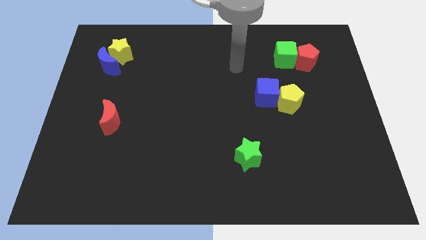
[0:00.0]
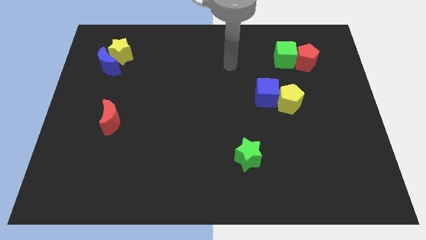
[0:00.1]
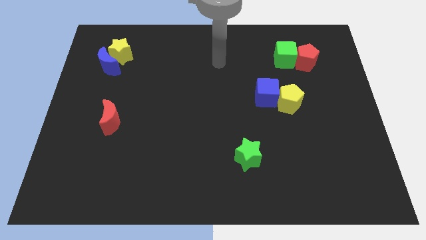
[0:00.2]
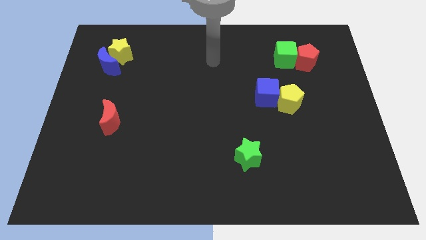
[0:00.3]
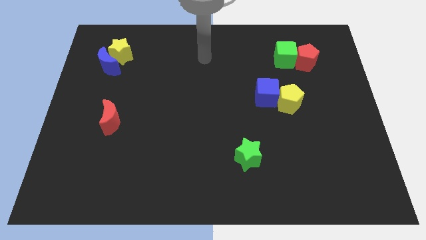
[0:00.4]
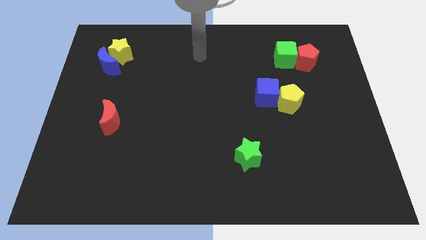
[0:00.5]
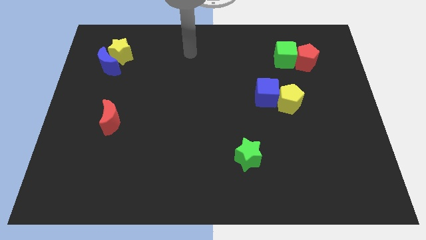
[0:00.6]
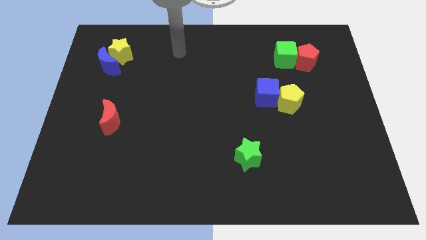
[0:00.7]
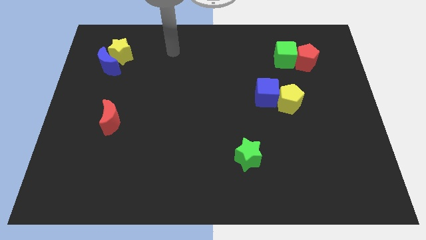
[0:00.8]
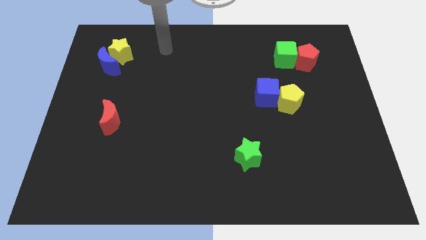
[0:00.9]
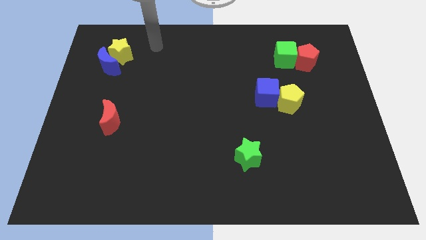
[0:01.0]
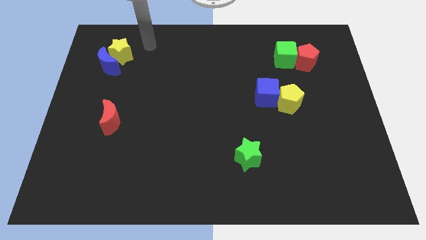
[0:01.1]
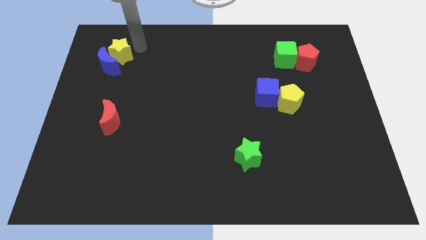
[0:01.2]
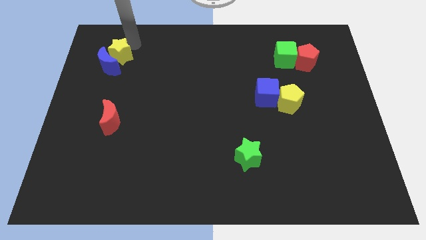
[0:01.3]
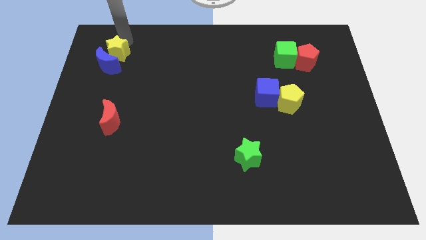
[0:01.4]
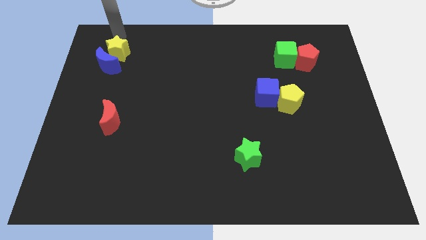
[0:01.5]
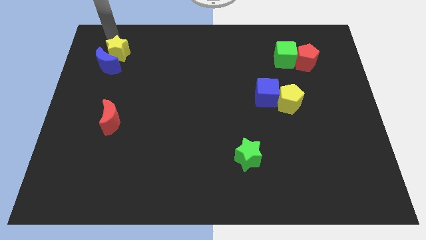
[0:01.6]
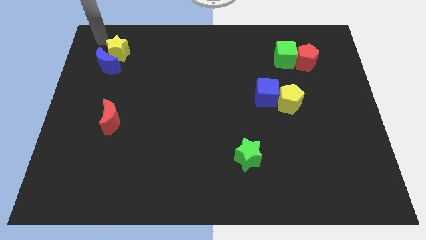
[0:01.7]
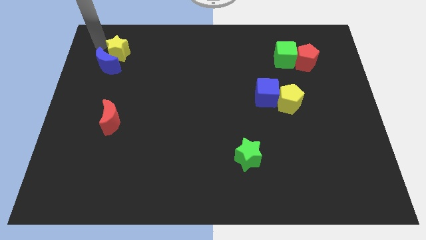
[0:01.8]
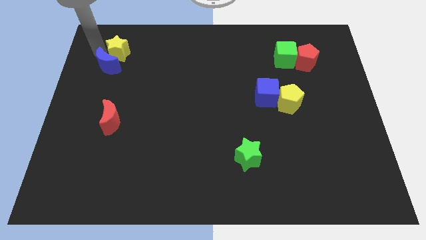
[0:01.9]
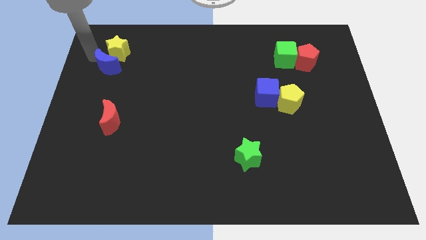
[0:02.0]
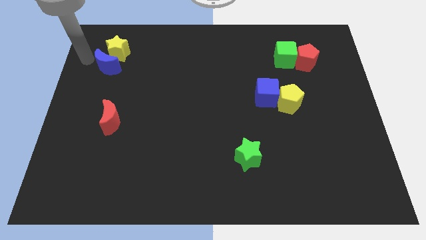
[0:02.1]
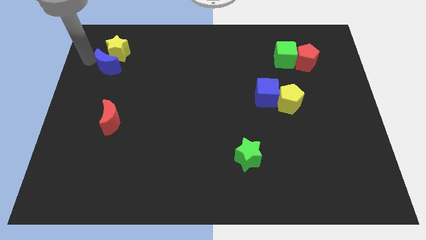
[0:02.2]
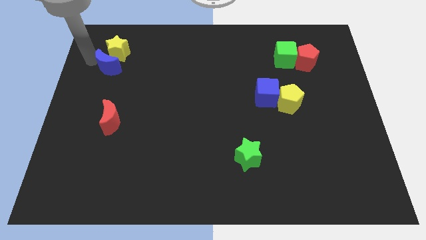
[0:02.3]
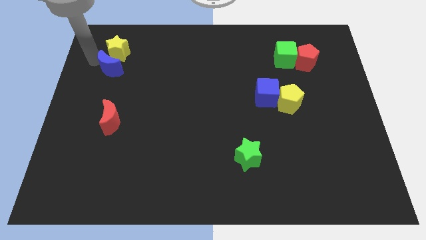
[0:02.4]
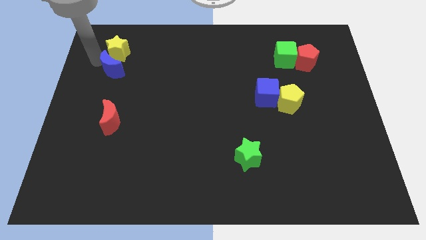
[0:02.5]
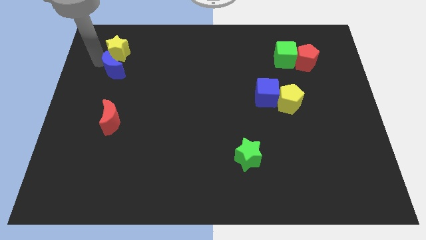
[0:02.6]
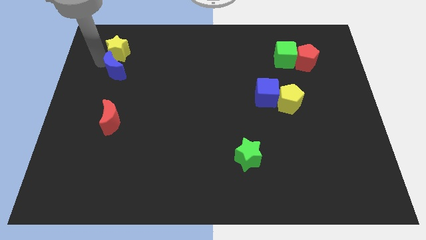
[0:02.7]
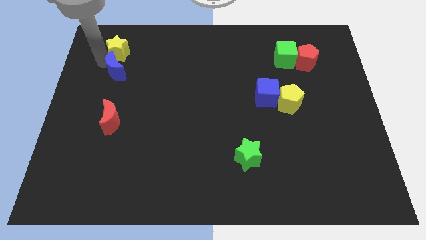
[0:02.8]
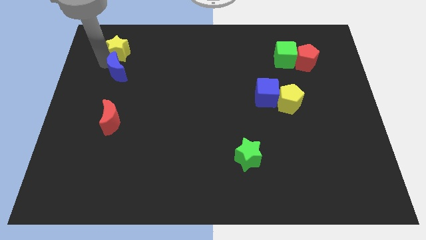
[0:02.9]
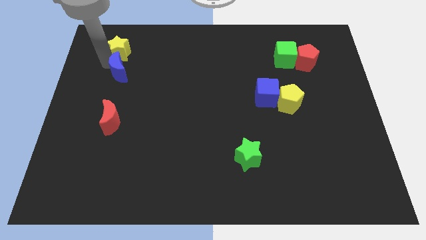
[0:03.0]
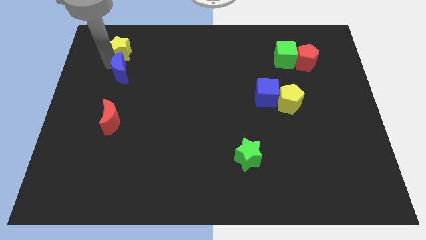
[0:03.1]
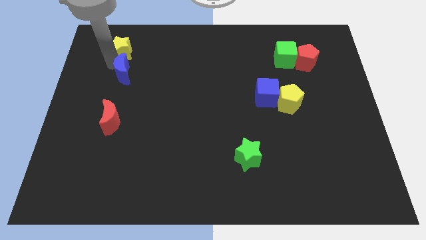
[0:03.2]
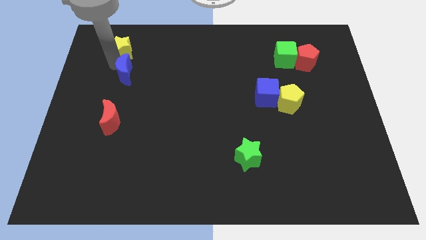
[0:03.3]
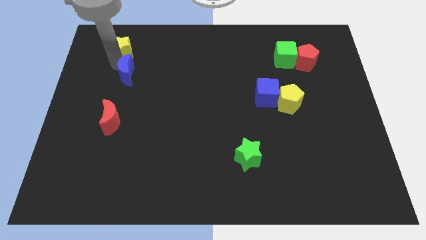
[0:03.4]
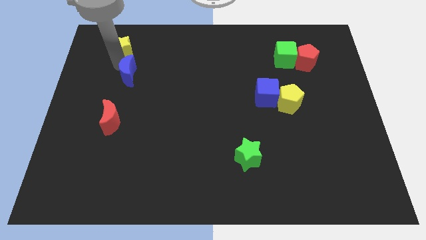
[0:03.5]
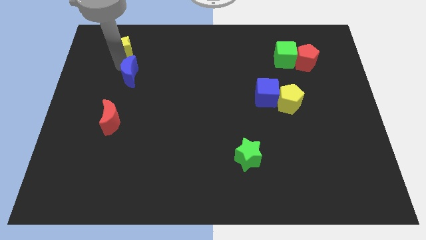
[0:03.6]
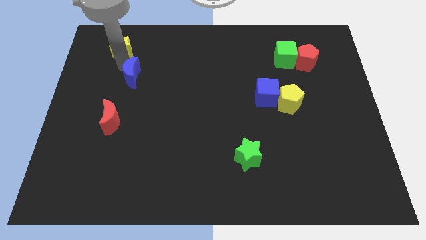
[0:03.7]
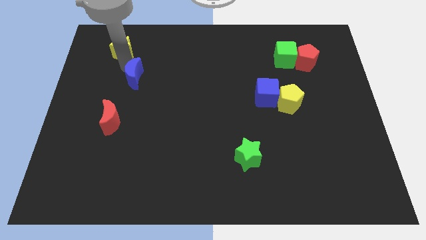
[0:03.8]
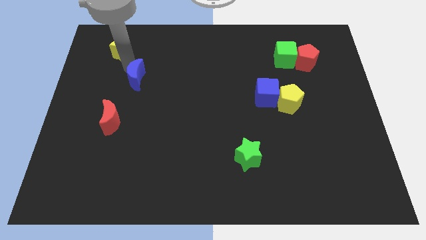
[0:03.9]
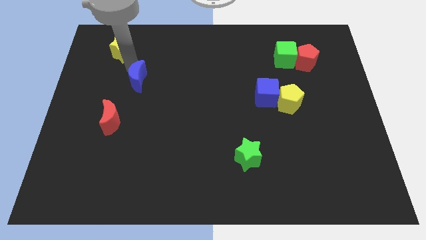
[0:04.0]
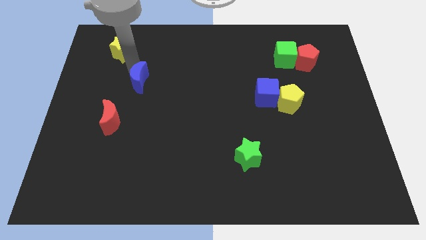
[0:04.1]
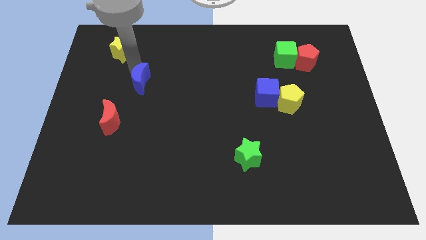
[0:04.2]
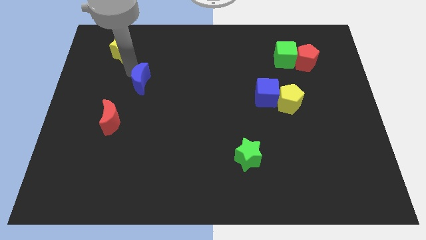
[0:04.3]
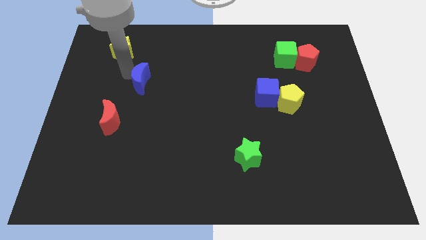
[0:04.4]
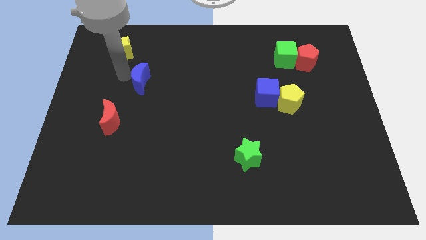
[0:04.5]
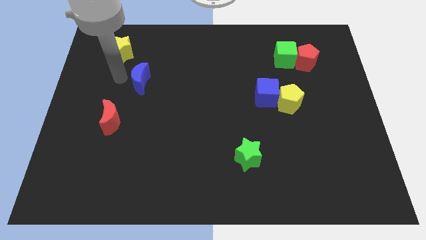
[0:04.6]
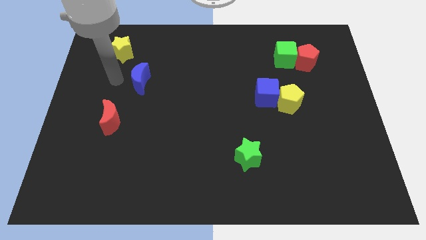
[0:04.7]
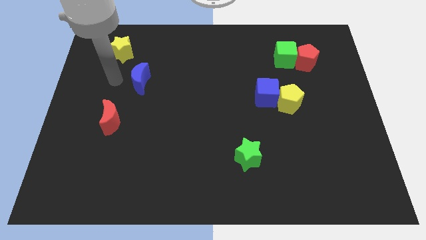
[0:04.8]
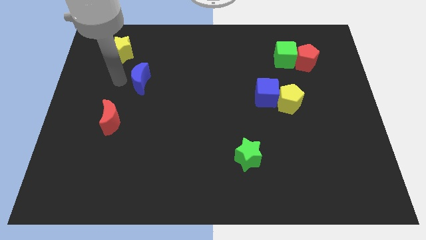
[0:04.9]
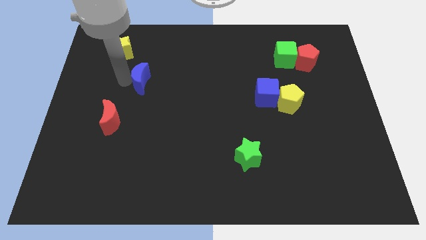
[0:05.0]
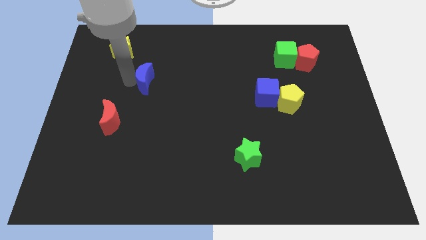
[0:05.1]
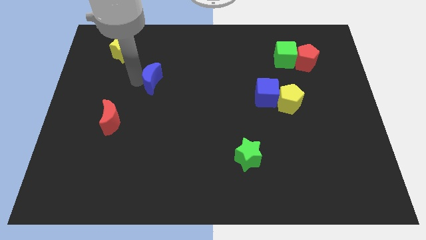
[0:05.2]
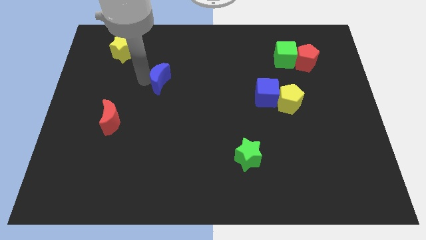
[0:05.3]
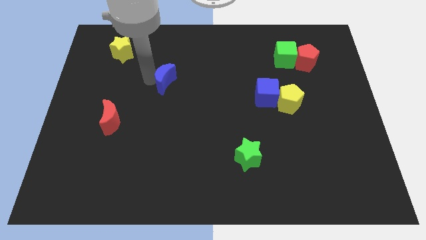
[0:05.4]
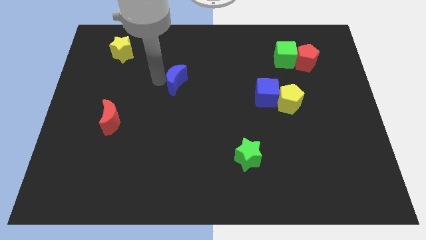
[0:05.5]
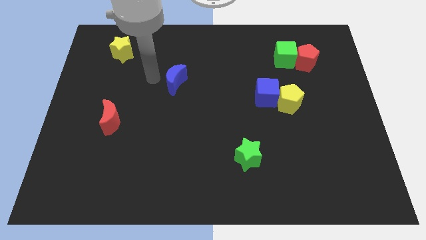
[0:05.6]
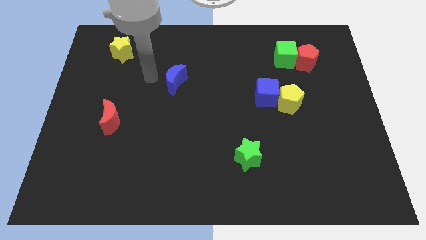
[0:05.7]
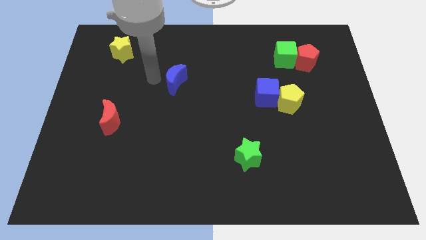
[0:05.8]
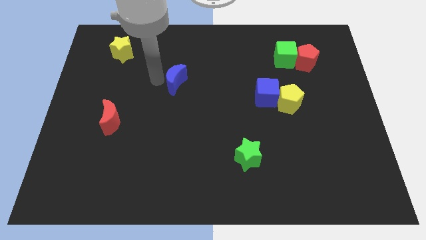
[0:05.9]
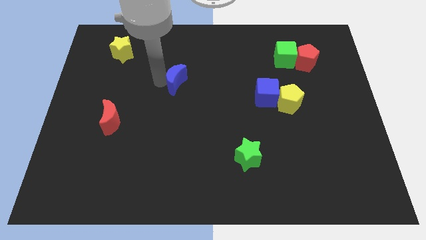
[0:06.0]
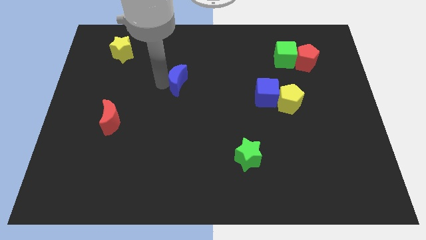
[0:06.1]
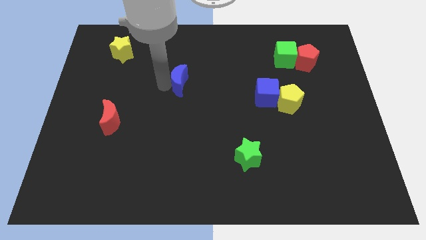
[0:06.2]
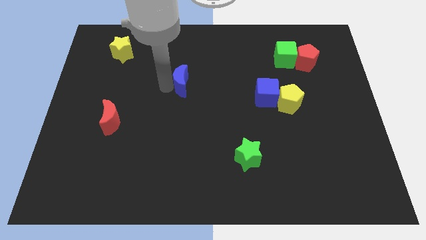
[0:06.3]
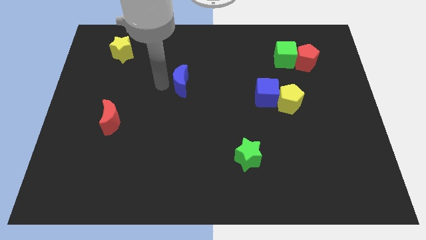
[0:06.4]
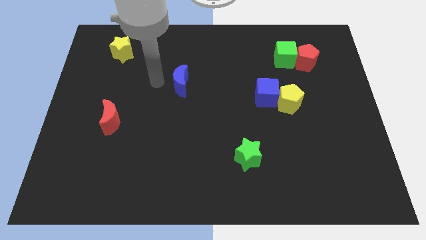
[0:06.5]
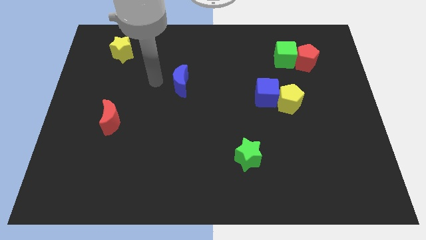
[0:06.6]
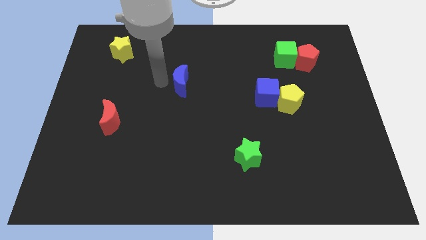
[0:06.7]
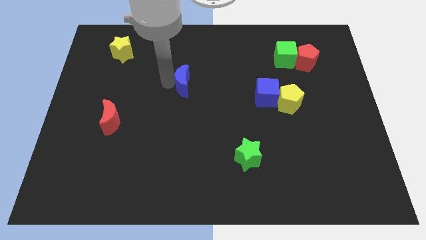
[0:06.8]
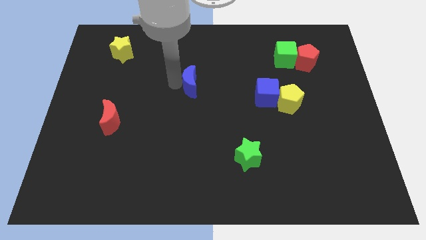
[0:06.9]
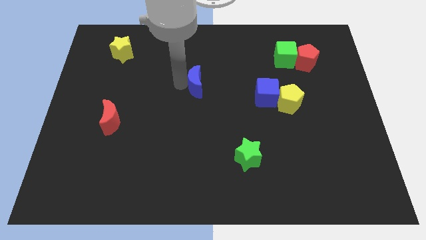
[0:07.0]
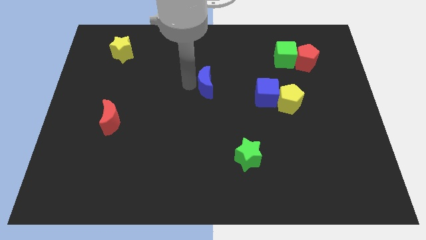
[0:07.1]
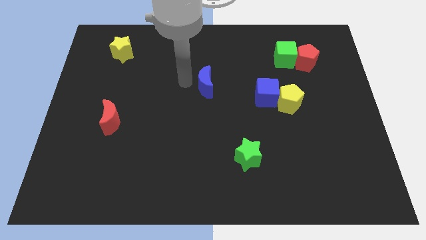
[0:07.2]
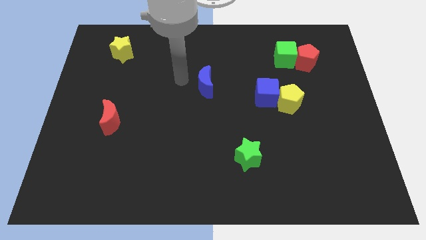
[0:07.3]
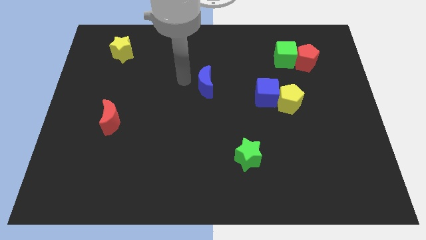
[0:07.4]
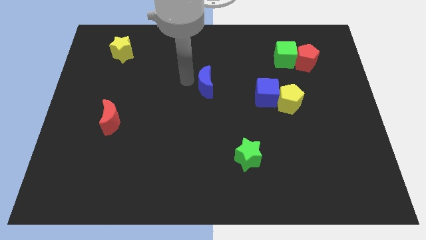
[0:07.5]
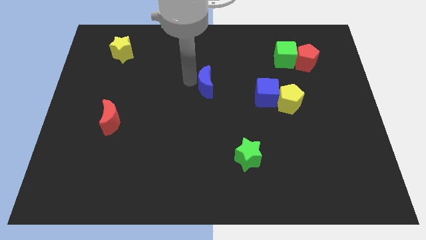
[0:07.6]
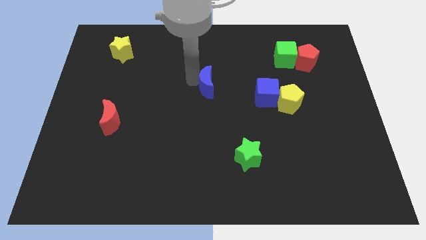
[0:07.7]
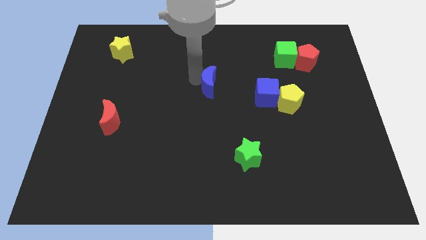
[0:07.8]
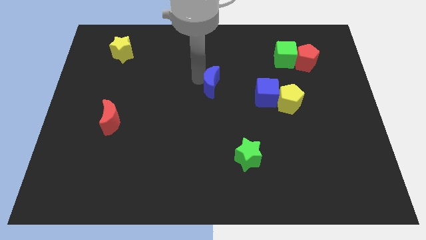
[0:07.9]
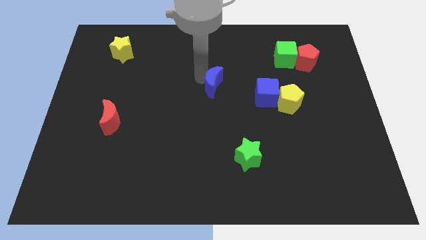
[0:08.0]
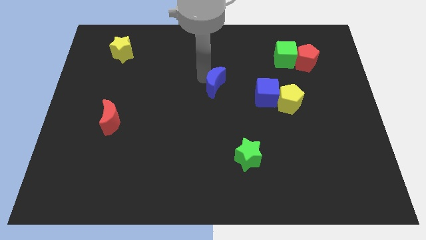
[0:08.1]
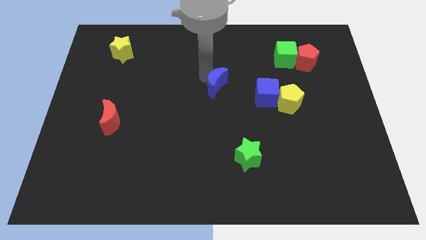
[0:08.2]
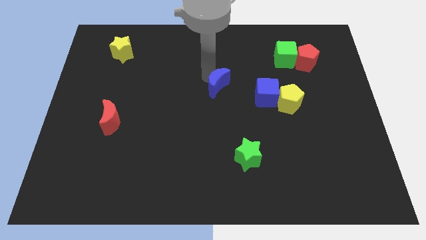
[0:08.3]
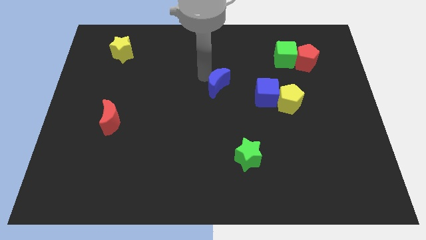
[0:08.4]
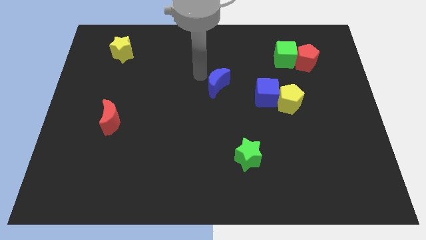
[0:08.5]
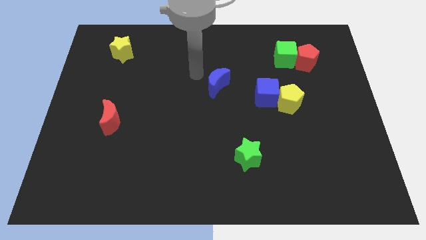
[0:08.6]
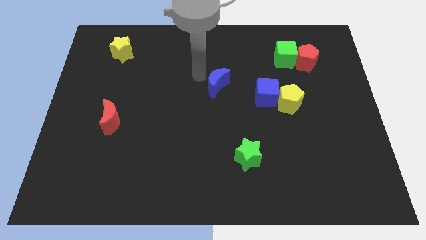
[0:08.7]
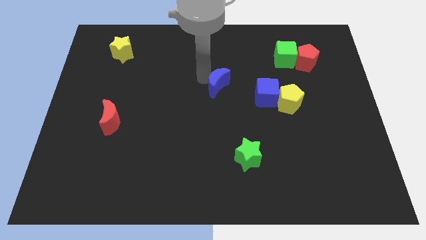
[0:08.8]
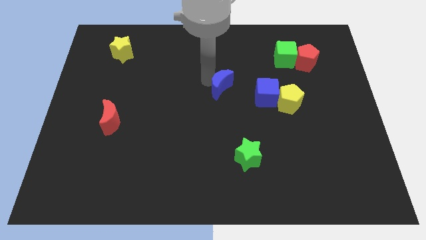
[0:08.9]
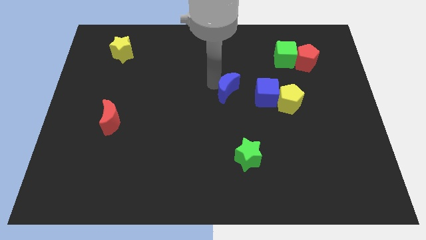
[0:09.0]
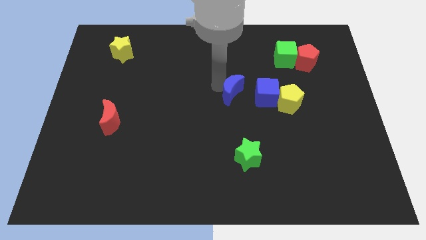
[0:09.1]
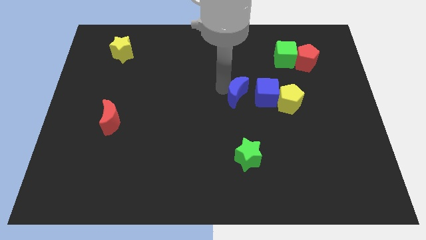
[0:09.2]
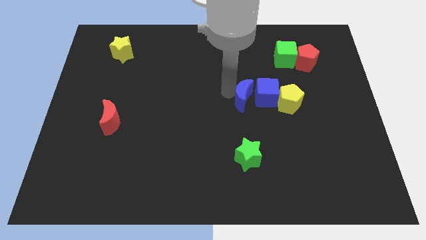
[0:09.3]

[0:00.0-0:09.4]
move the blue moon close to the blue cube
